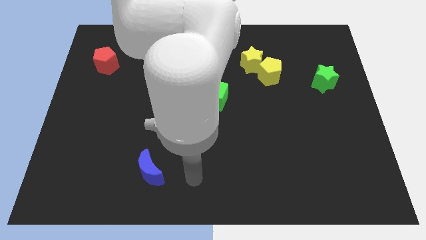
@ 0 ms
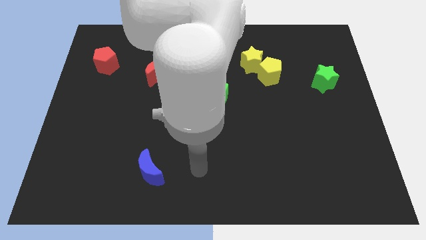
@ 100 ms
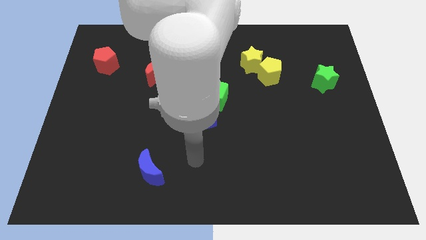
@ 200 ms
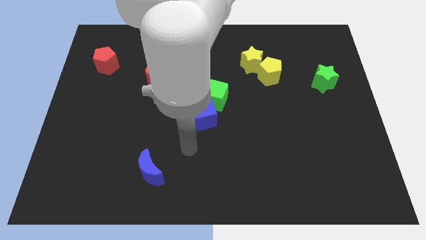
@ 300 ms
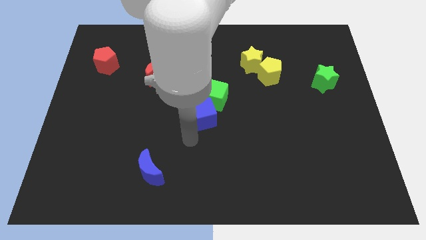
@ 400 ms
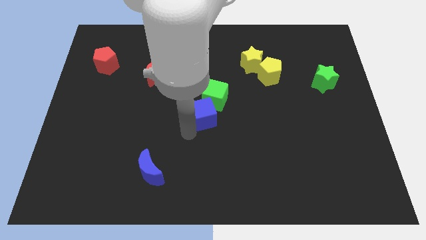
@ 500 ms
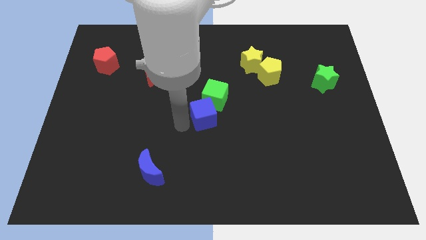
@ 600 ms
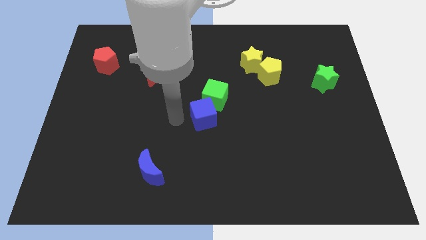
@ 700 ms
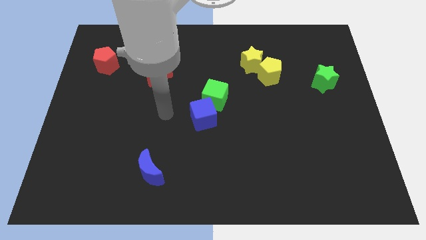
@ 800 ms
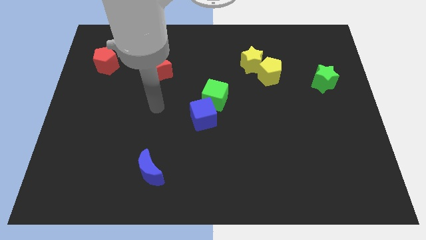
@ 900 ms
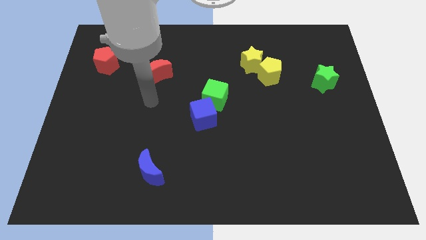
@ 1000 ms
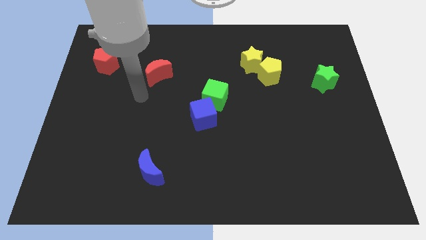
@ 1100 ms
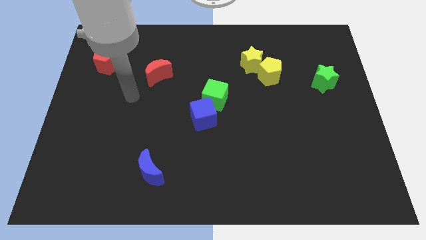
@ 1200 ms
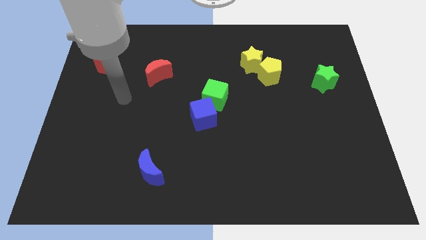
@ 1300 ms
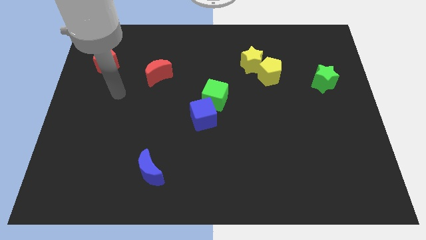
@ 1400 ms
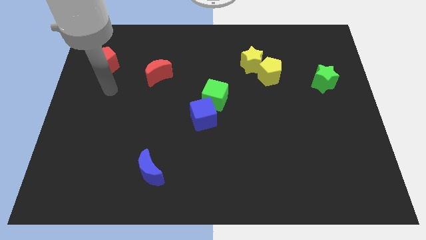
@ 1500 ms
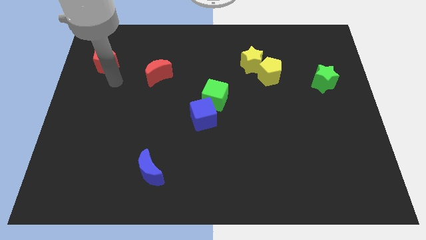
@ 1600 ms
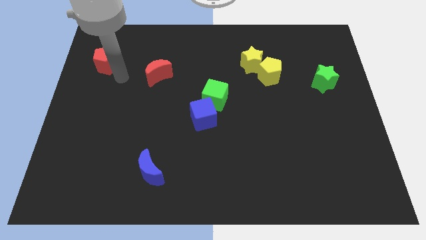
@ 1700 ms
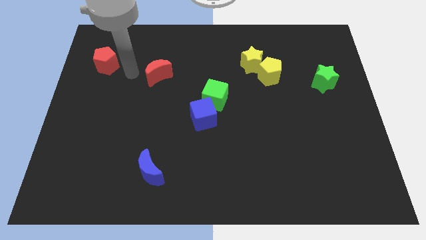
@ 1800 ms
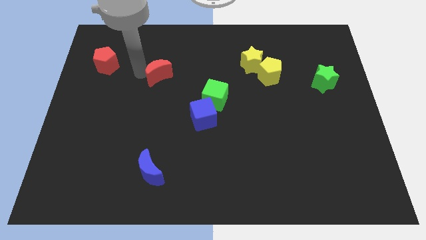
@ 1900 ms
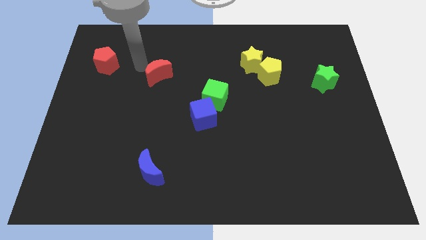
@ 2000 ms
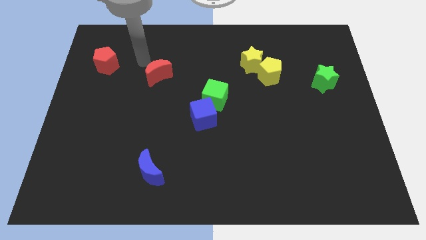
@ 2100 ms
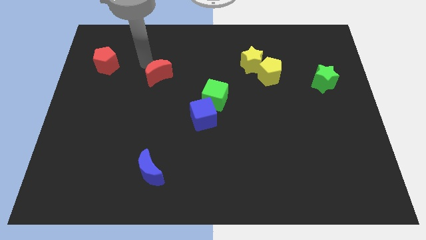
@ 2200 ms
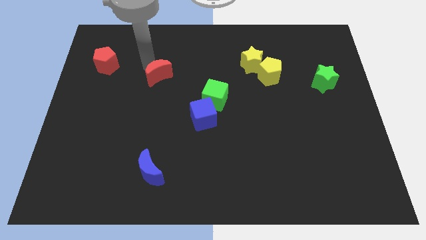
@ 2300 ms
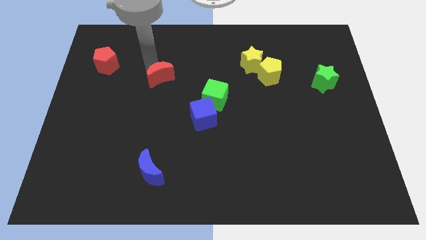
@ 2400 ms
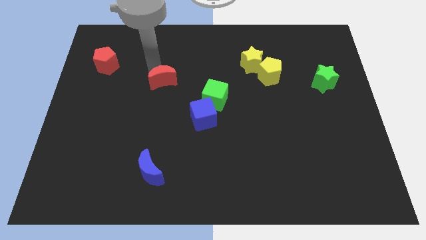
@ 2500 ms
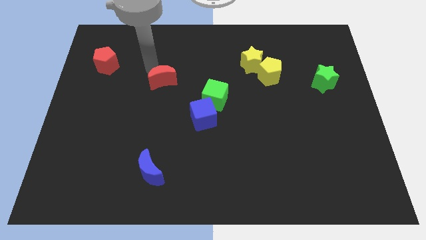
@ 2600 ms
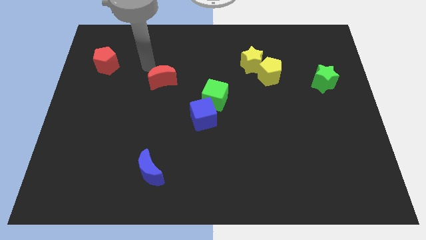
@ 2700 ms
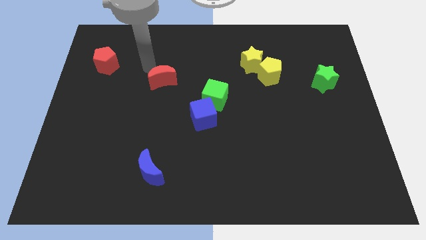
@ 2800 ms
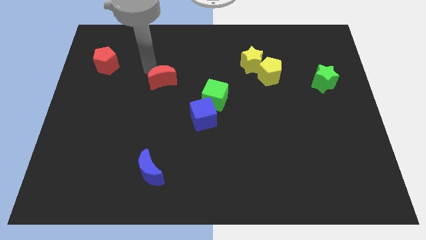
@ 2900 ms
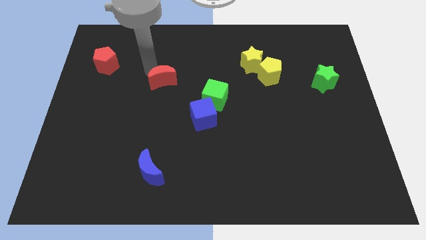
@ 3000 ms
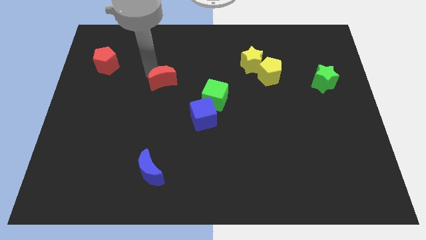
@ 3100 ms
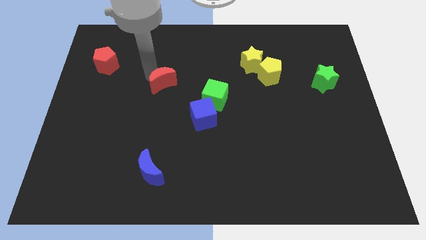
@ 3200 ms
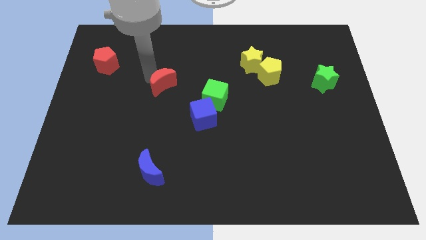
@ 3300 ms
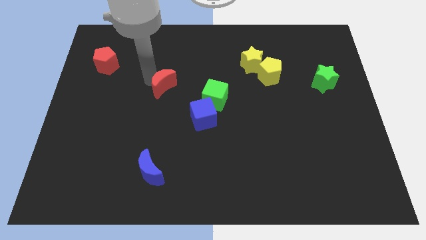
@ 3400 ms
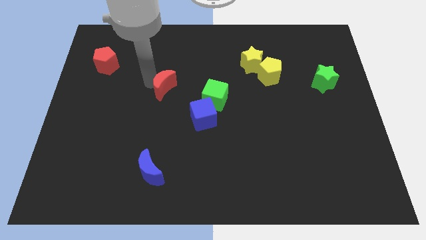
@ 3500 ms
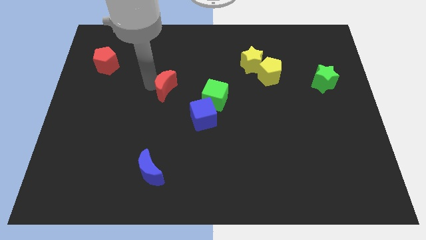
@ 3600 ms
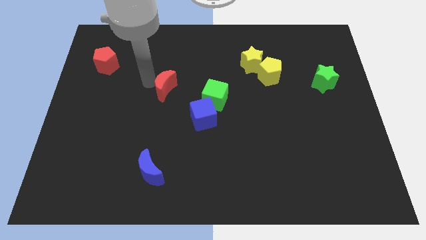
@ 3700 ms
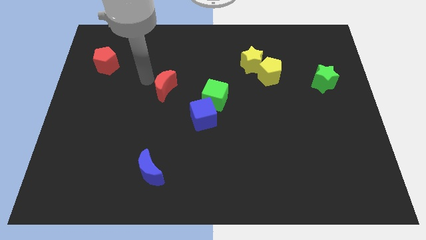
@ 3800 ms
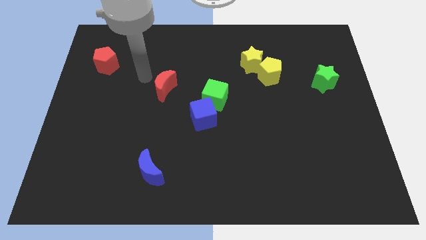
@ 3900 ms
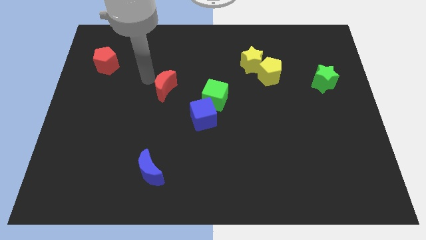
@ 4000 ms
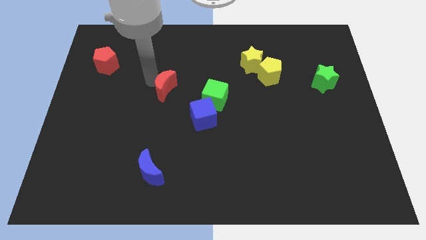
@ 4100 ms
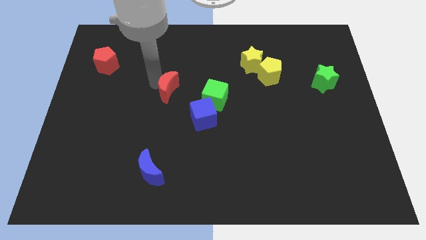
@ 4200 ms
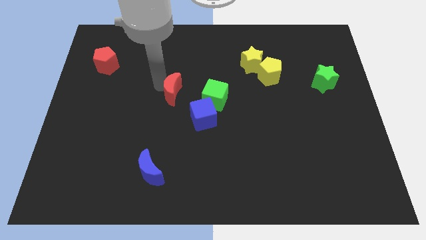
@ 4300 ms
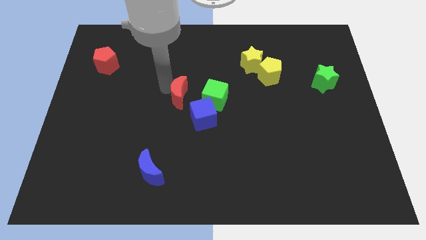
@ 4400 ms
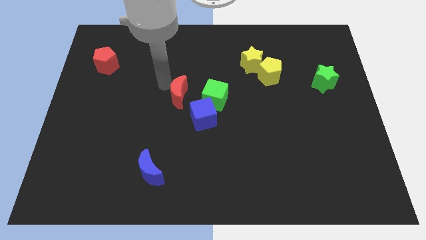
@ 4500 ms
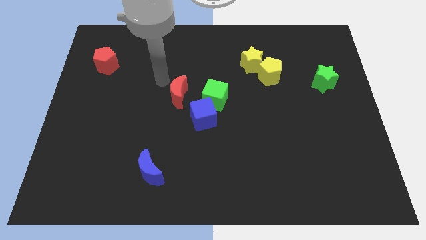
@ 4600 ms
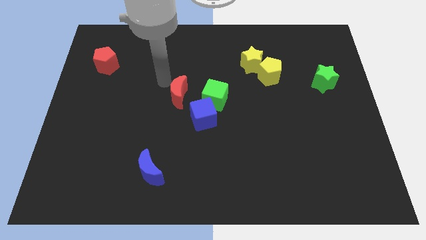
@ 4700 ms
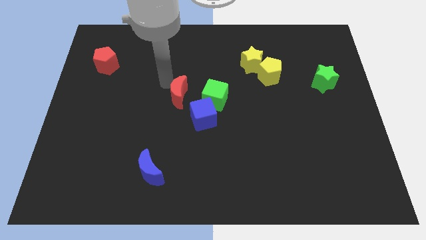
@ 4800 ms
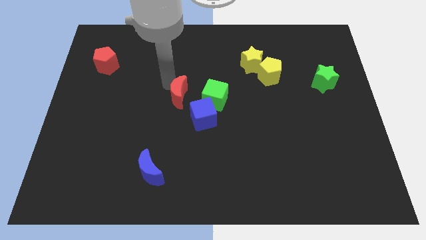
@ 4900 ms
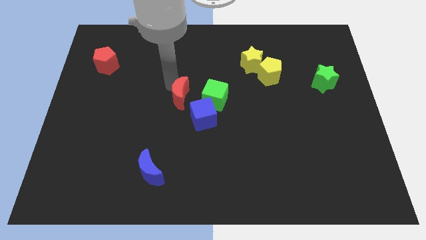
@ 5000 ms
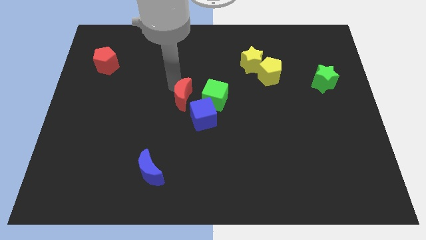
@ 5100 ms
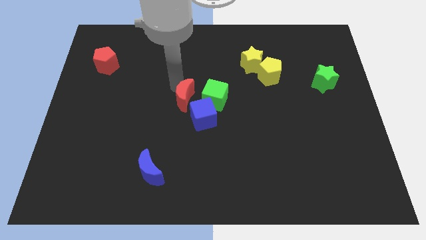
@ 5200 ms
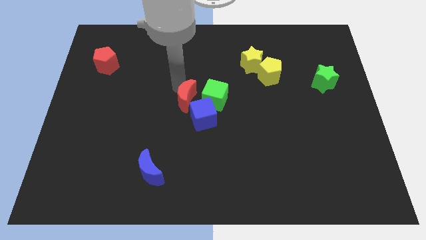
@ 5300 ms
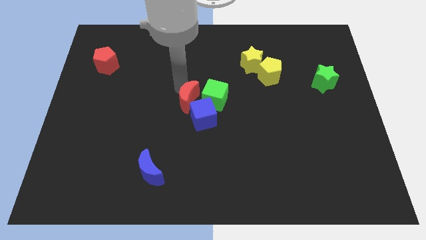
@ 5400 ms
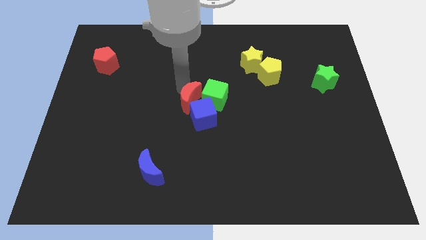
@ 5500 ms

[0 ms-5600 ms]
put the red moon to the blue cube

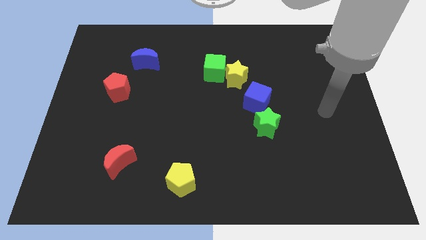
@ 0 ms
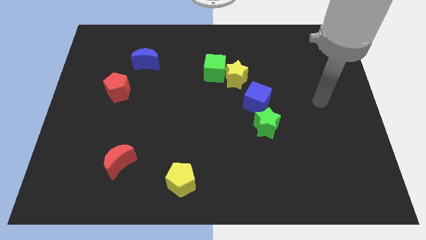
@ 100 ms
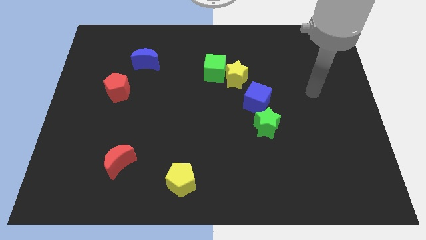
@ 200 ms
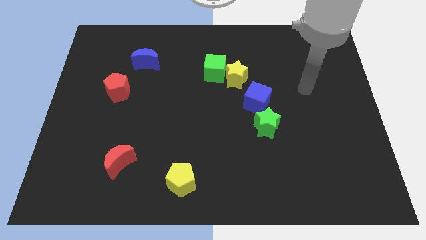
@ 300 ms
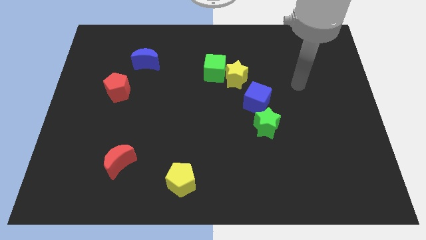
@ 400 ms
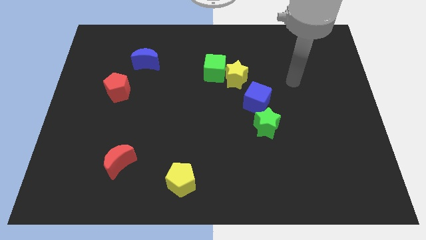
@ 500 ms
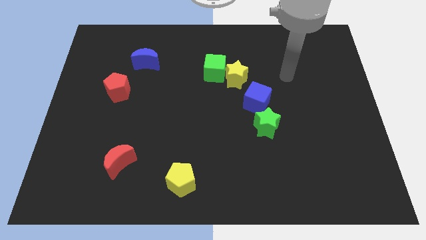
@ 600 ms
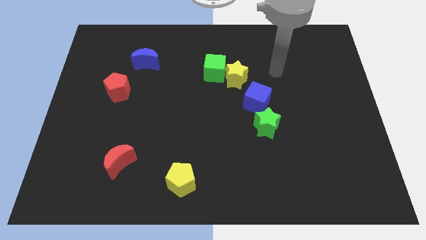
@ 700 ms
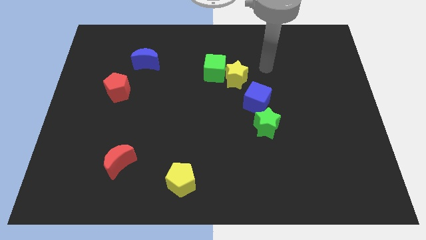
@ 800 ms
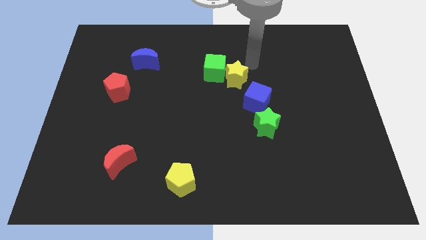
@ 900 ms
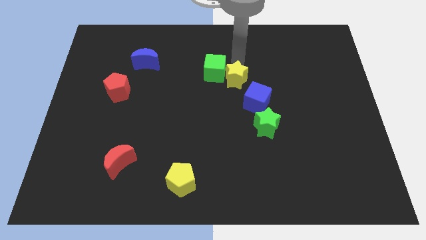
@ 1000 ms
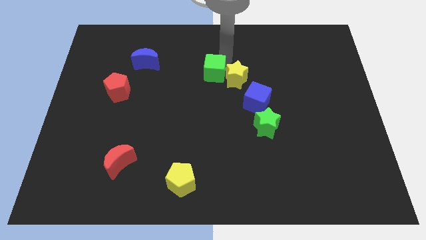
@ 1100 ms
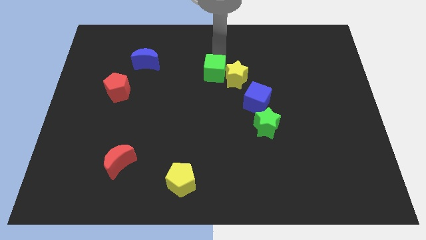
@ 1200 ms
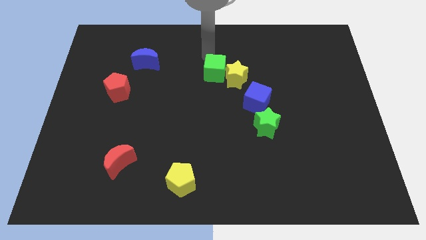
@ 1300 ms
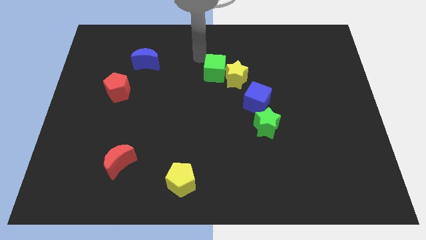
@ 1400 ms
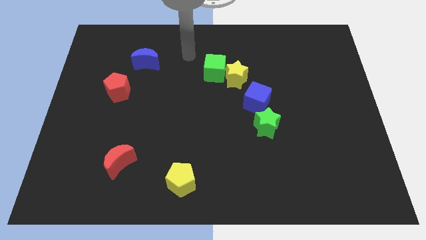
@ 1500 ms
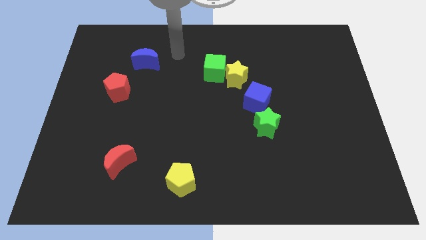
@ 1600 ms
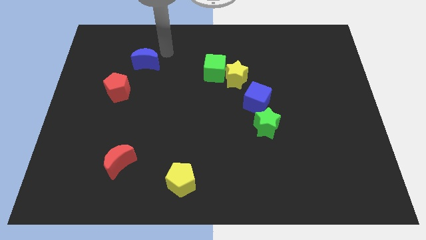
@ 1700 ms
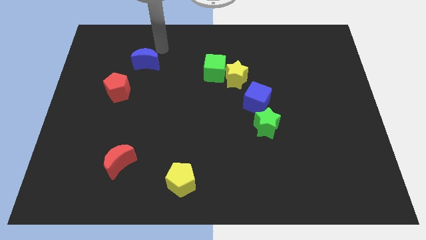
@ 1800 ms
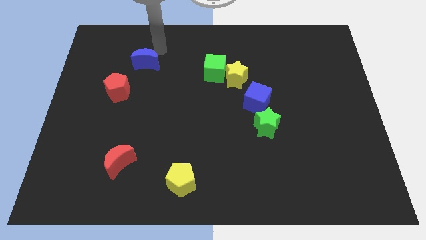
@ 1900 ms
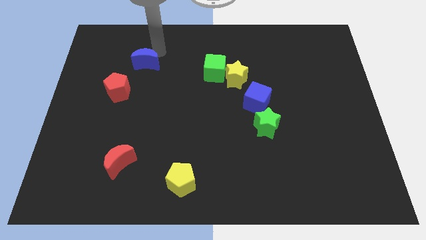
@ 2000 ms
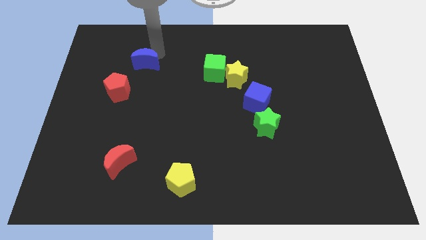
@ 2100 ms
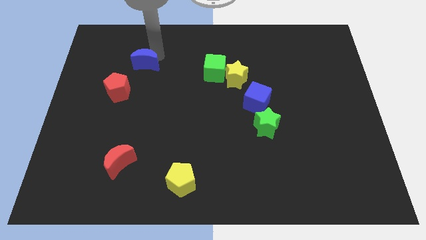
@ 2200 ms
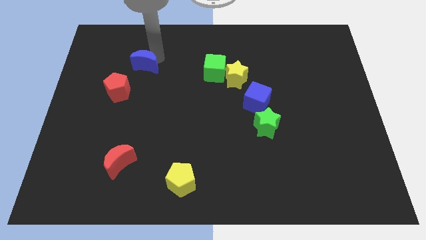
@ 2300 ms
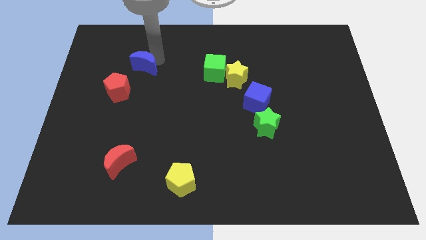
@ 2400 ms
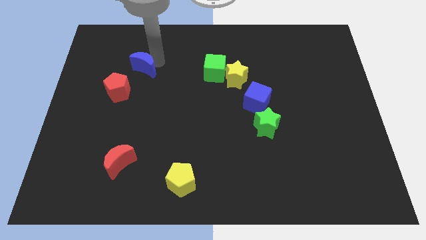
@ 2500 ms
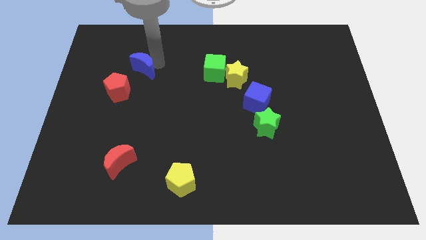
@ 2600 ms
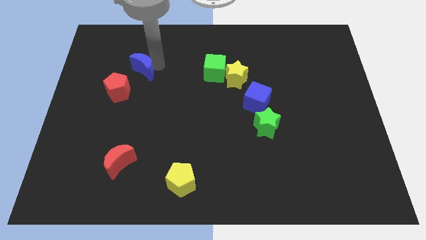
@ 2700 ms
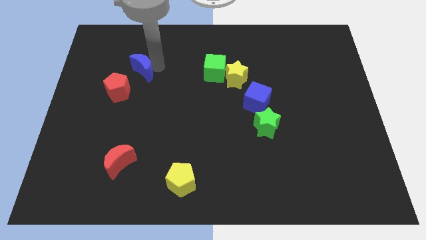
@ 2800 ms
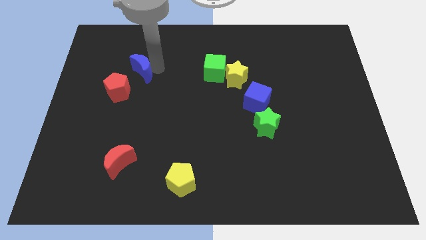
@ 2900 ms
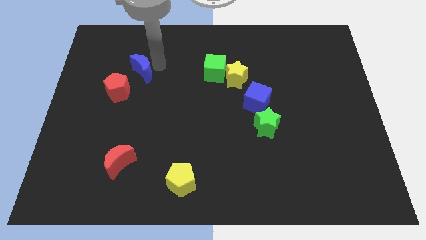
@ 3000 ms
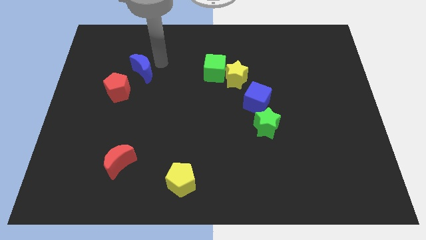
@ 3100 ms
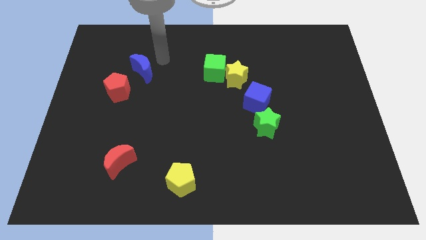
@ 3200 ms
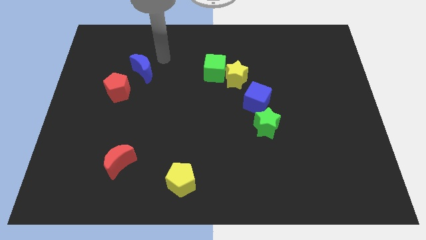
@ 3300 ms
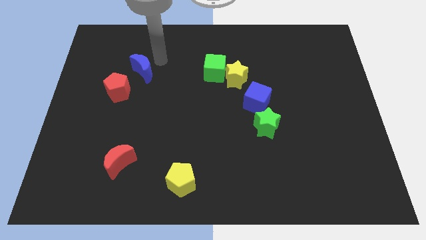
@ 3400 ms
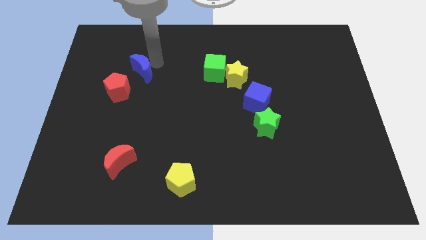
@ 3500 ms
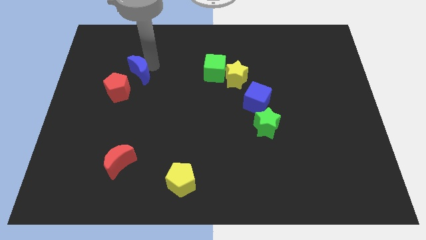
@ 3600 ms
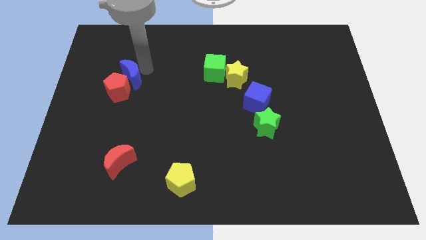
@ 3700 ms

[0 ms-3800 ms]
move the blue moon towards the red pentagon
